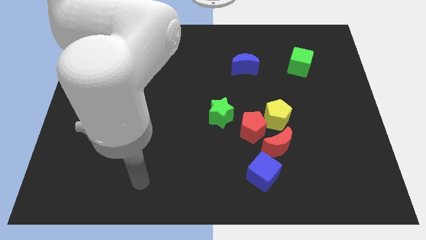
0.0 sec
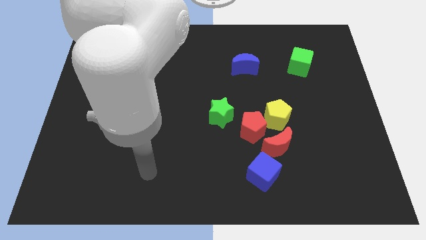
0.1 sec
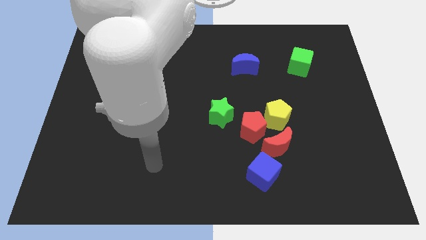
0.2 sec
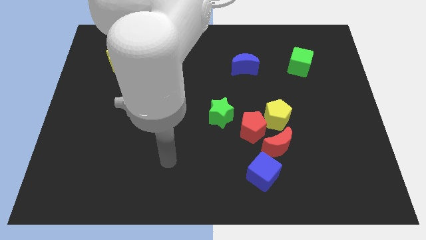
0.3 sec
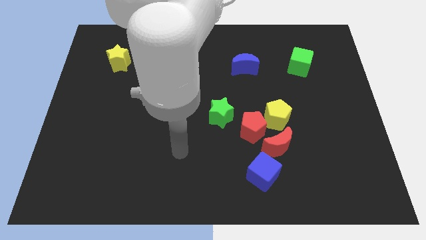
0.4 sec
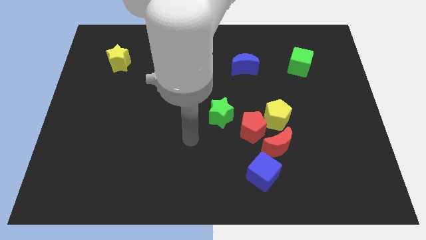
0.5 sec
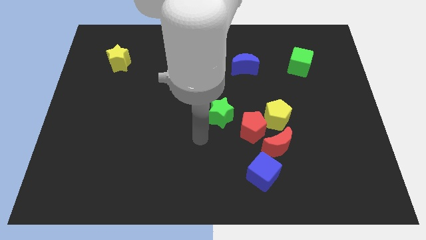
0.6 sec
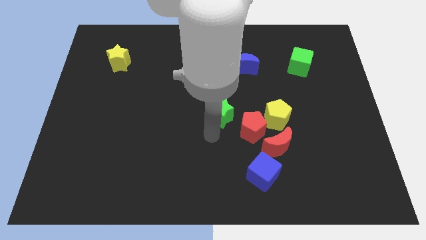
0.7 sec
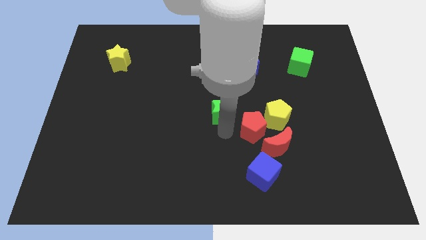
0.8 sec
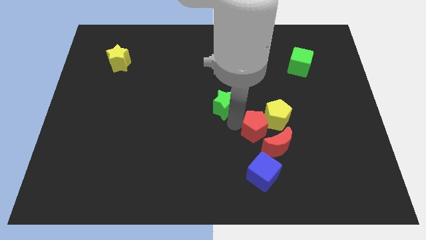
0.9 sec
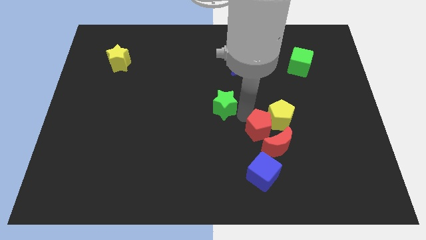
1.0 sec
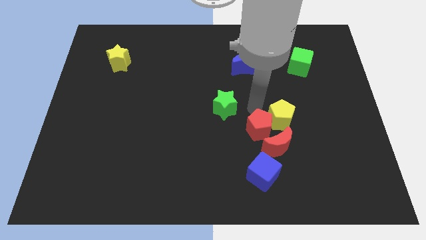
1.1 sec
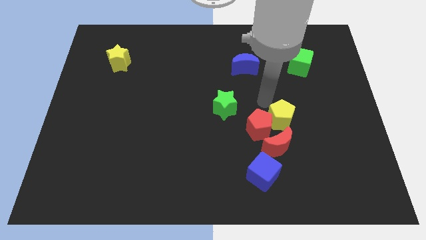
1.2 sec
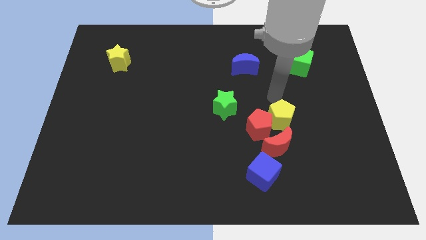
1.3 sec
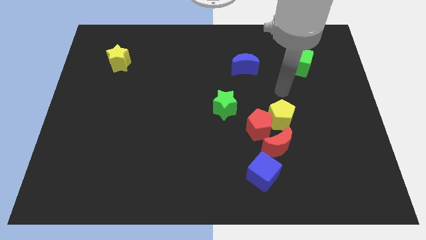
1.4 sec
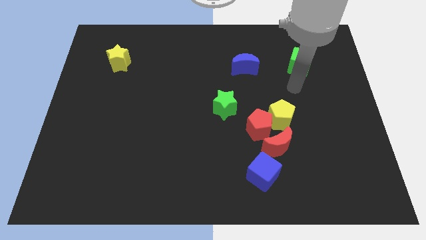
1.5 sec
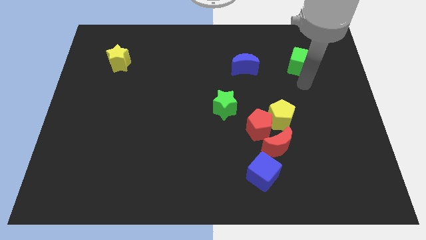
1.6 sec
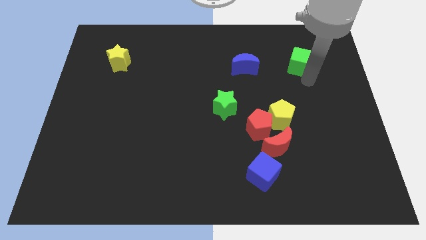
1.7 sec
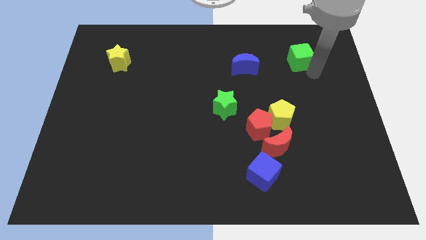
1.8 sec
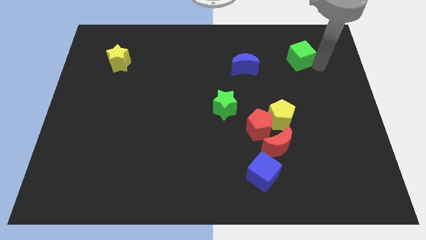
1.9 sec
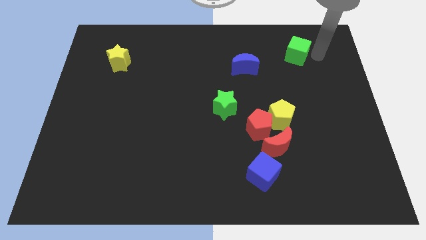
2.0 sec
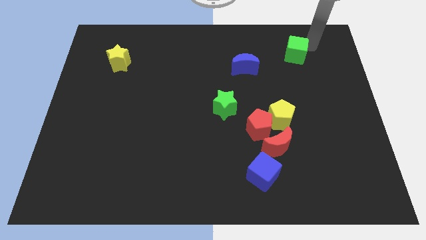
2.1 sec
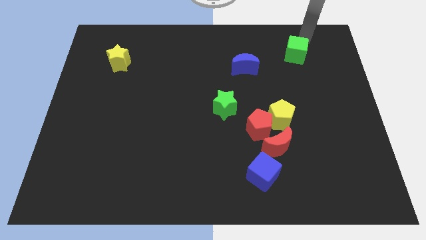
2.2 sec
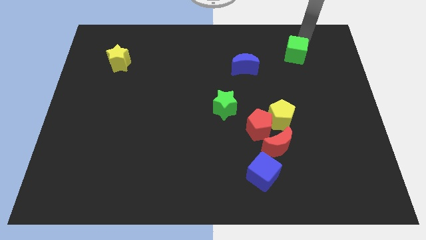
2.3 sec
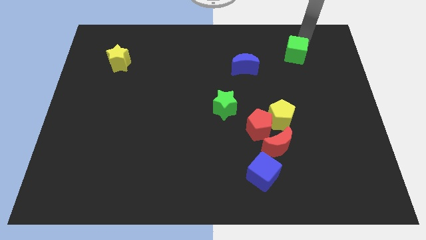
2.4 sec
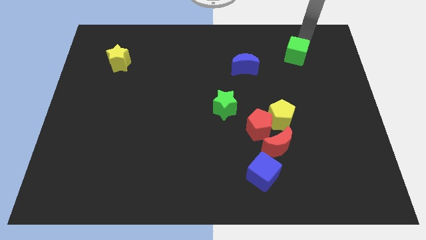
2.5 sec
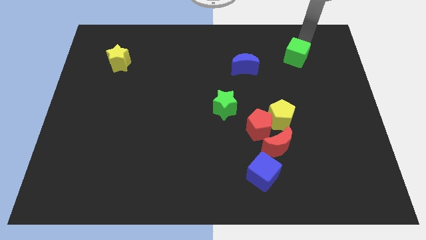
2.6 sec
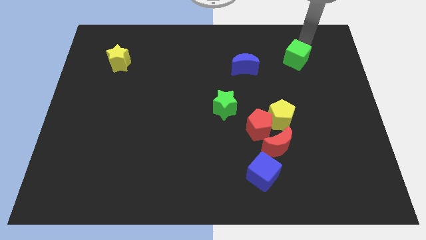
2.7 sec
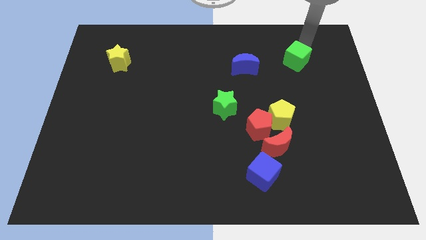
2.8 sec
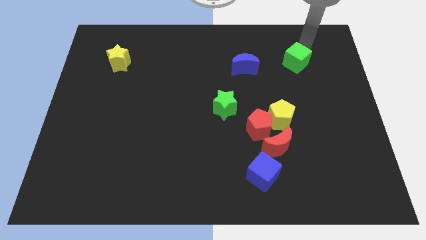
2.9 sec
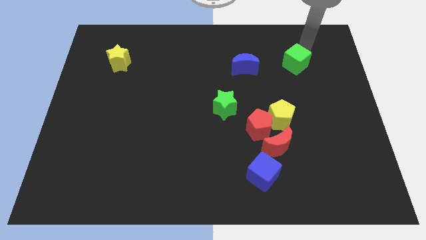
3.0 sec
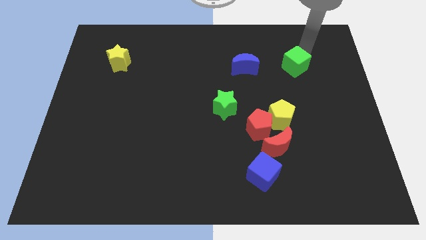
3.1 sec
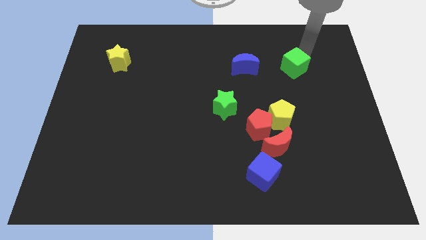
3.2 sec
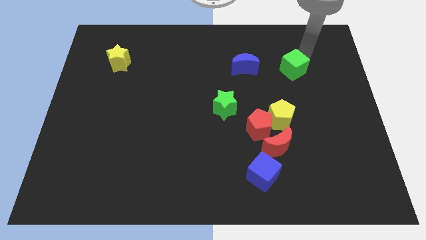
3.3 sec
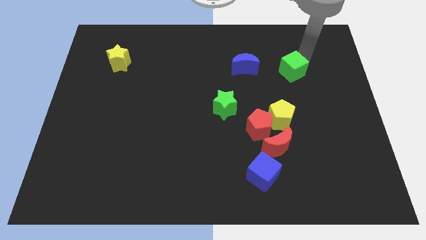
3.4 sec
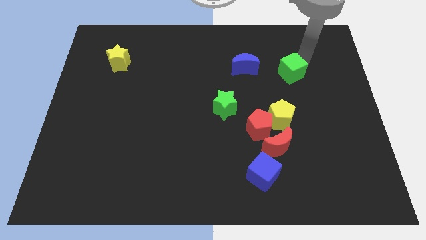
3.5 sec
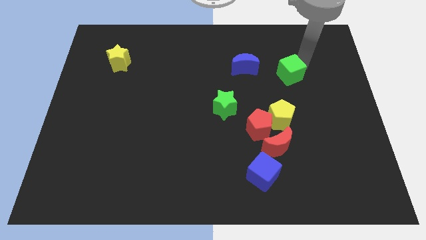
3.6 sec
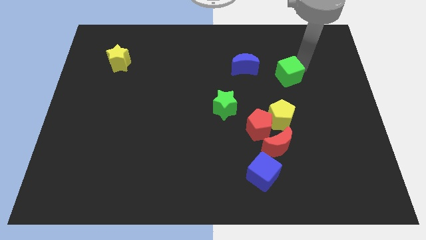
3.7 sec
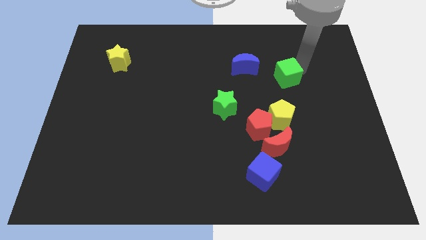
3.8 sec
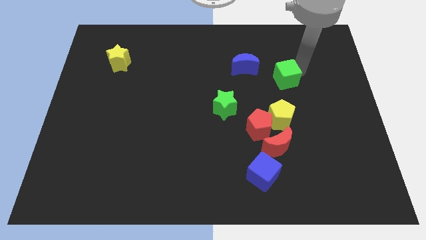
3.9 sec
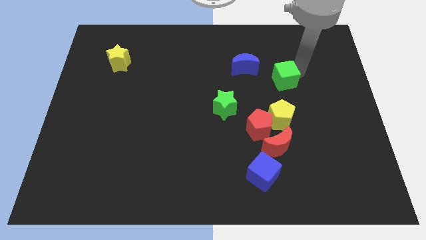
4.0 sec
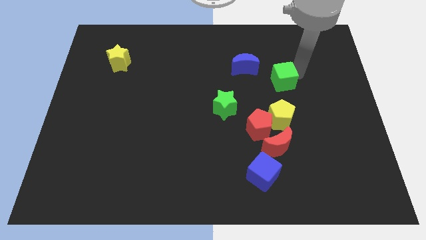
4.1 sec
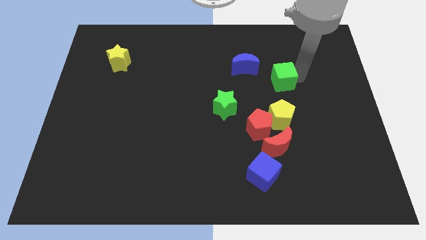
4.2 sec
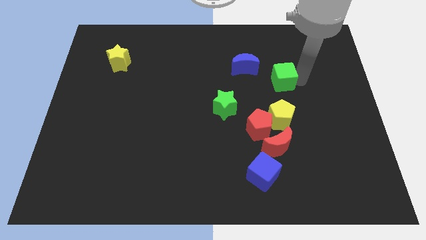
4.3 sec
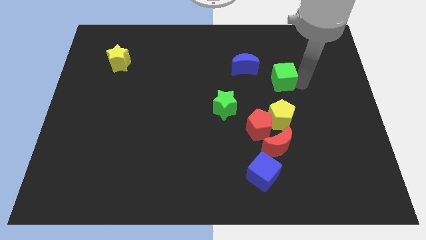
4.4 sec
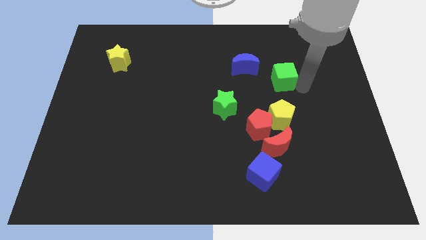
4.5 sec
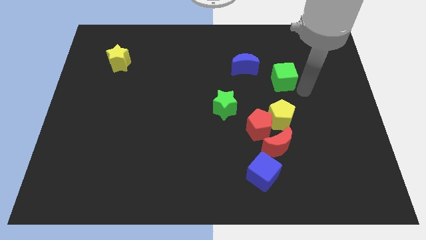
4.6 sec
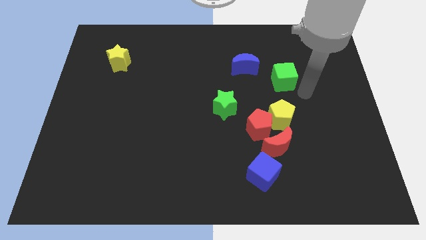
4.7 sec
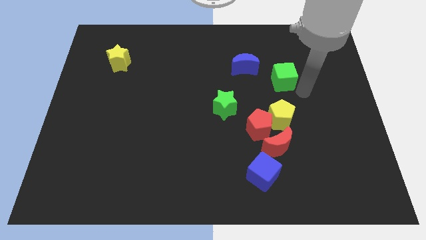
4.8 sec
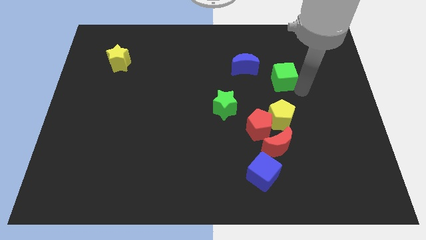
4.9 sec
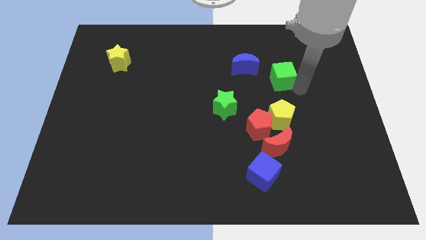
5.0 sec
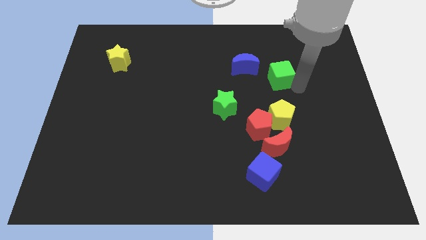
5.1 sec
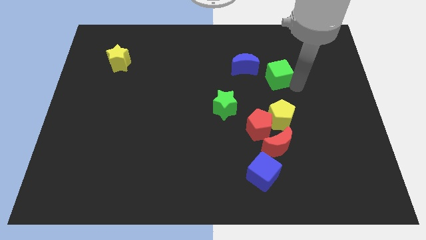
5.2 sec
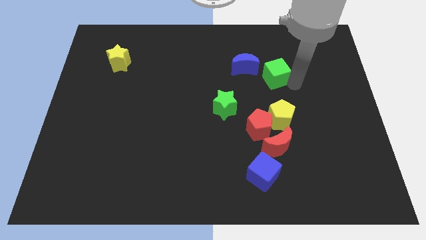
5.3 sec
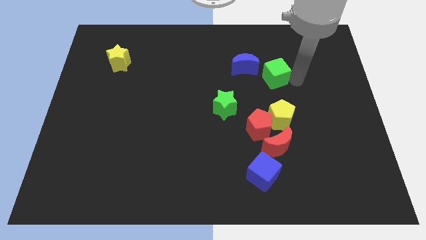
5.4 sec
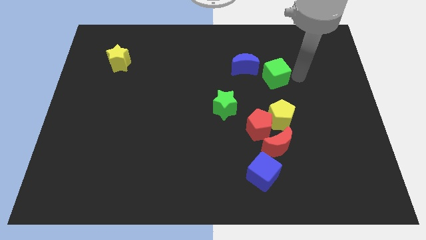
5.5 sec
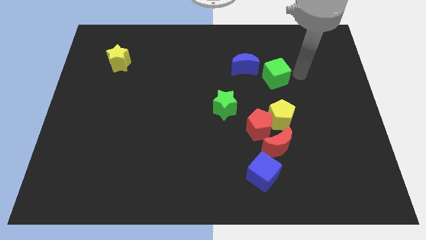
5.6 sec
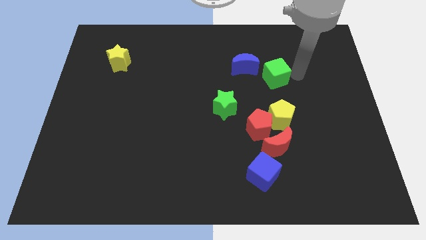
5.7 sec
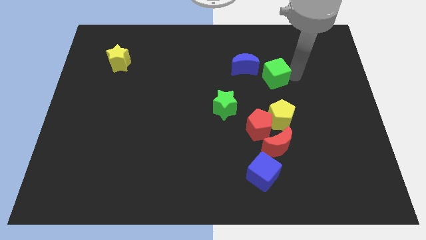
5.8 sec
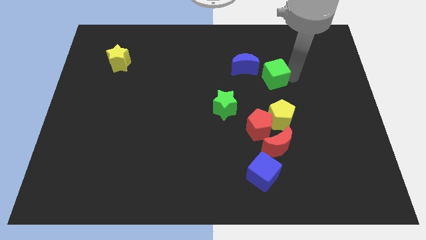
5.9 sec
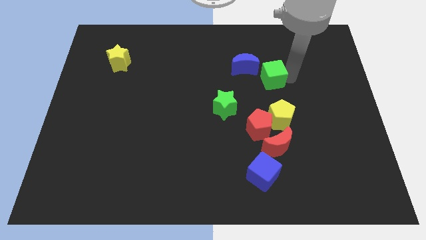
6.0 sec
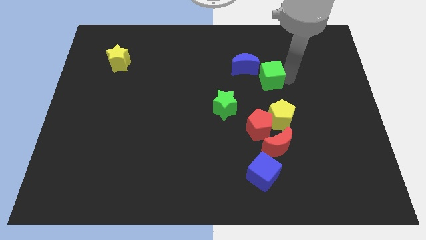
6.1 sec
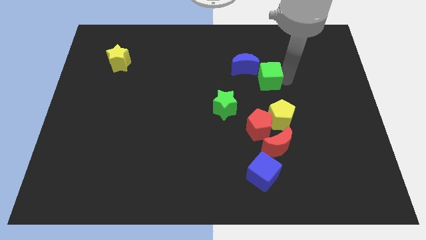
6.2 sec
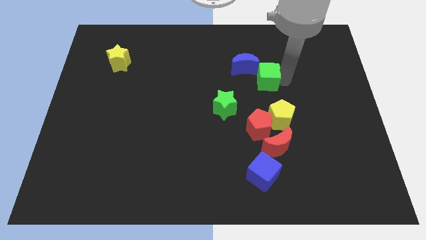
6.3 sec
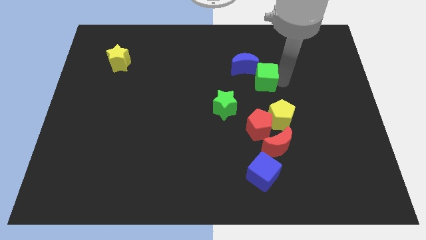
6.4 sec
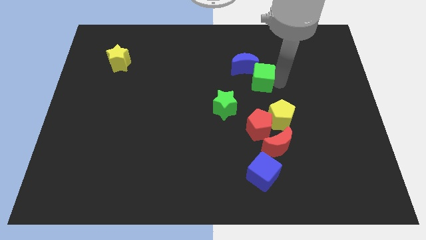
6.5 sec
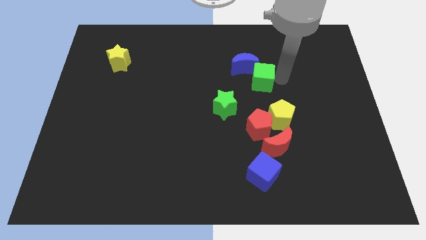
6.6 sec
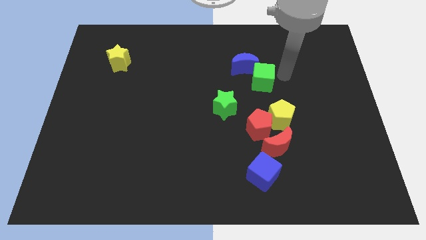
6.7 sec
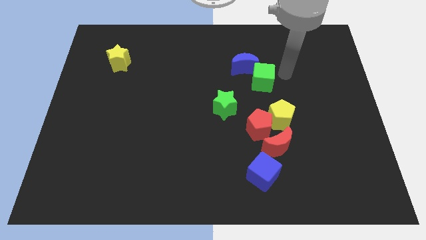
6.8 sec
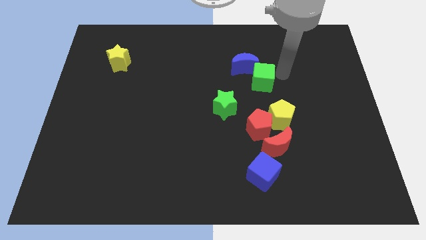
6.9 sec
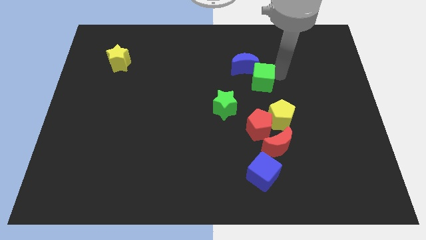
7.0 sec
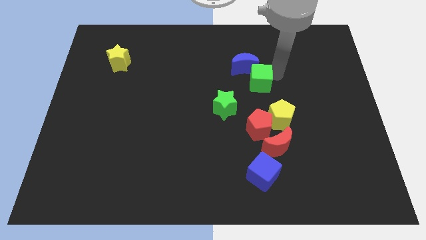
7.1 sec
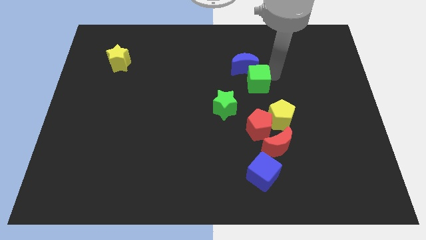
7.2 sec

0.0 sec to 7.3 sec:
move the green cube to the center
